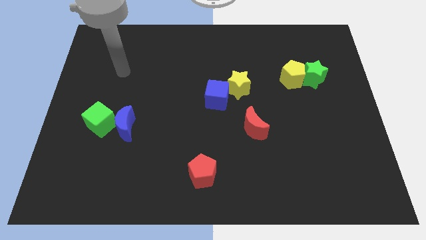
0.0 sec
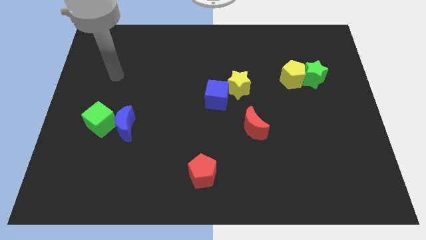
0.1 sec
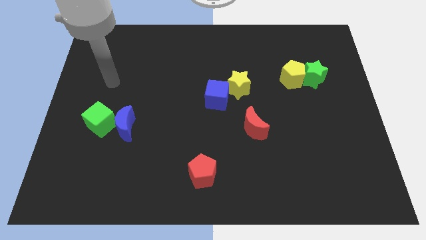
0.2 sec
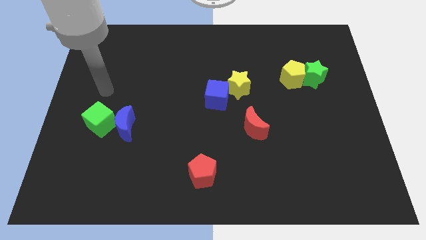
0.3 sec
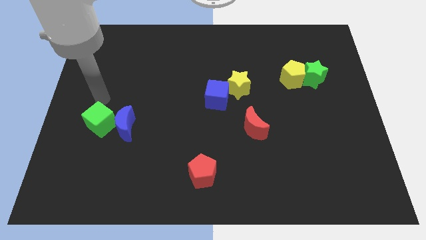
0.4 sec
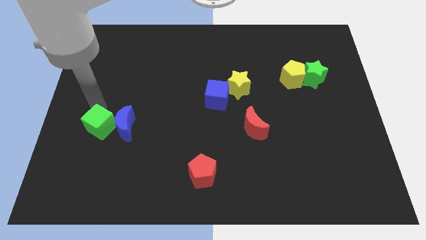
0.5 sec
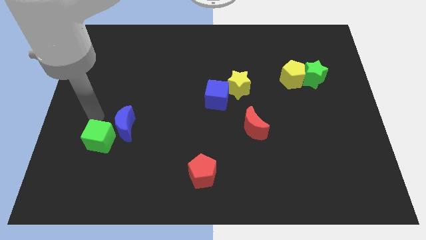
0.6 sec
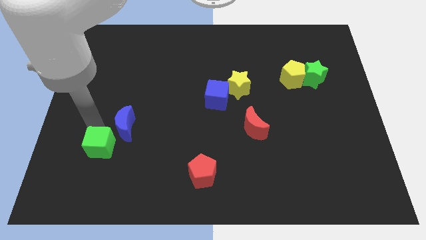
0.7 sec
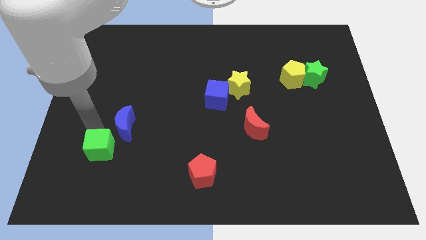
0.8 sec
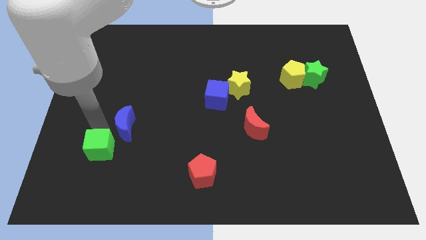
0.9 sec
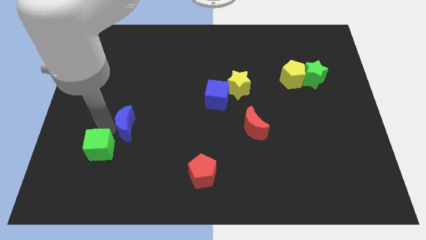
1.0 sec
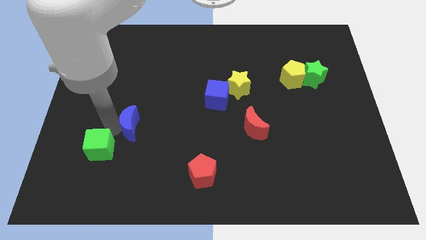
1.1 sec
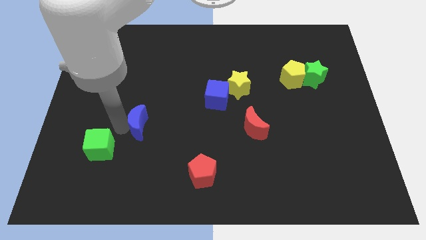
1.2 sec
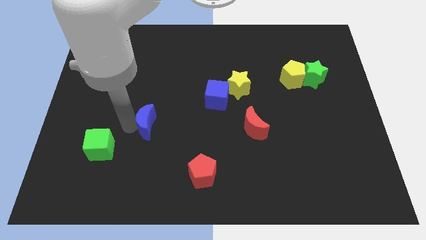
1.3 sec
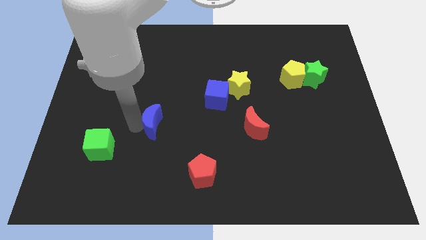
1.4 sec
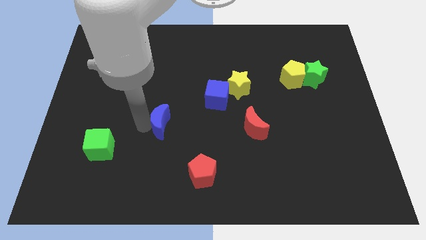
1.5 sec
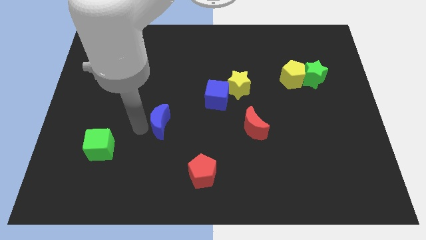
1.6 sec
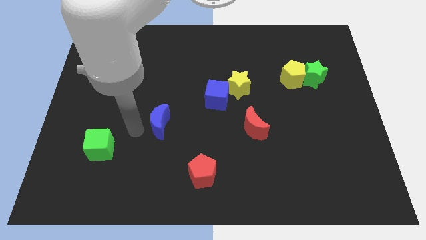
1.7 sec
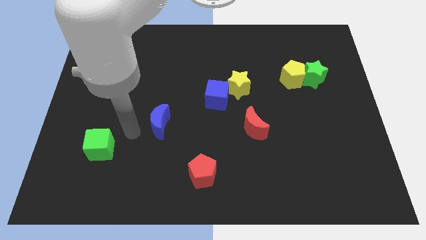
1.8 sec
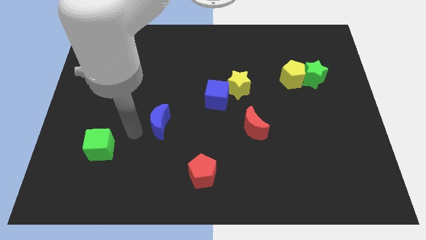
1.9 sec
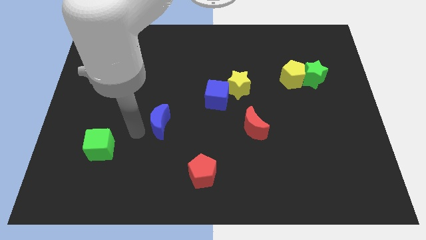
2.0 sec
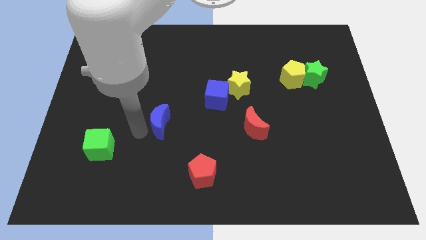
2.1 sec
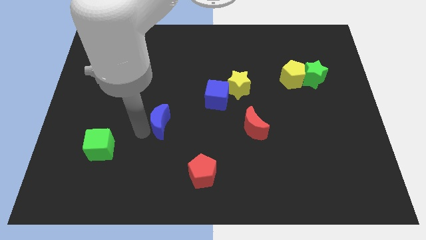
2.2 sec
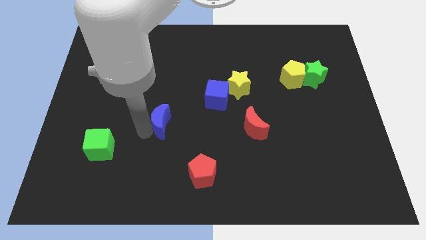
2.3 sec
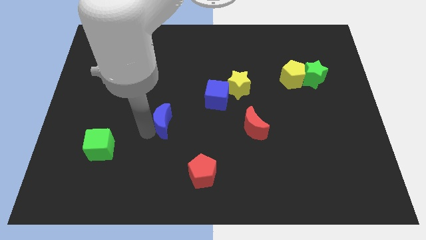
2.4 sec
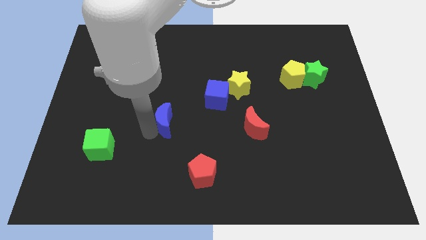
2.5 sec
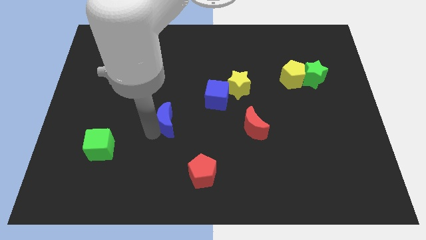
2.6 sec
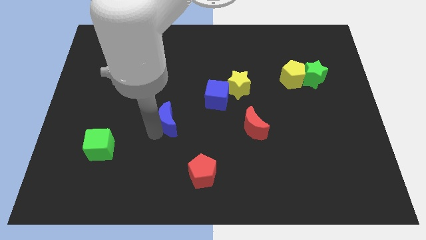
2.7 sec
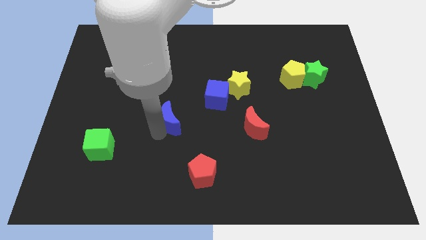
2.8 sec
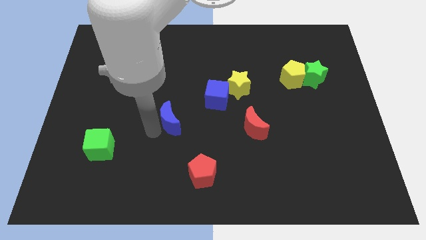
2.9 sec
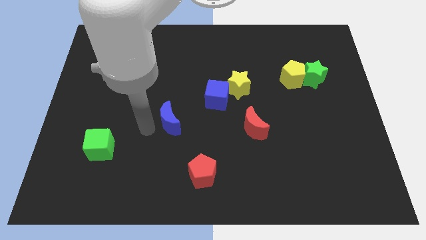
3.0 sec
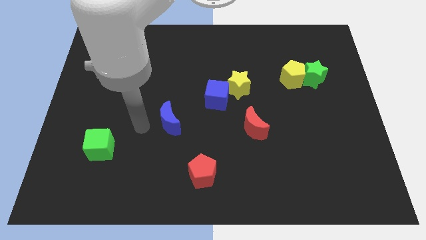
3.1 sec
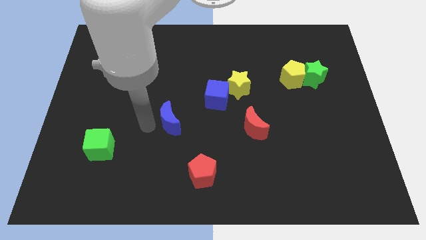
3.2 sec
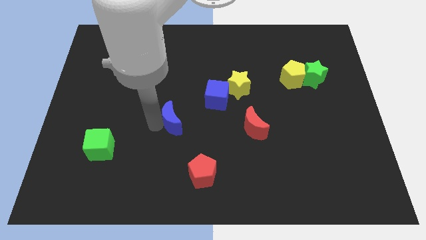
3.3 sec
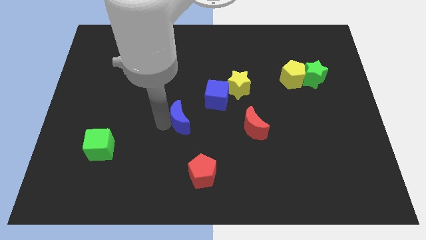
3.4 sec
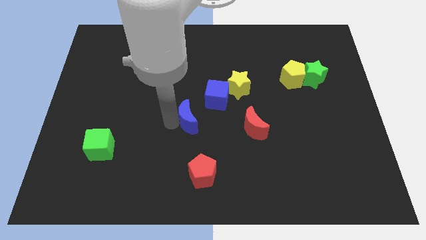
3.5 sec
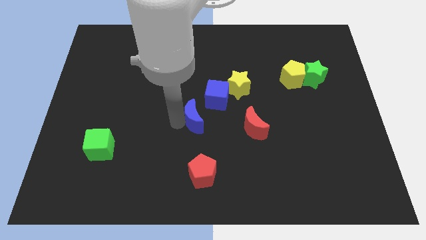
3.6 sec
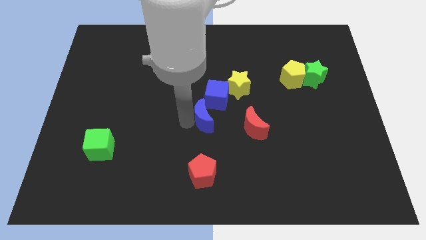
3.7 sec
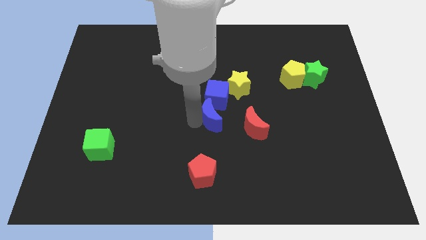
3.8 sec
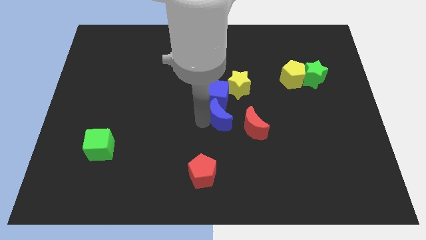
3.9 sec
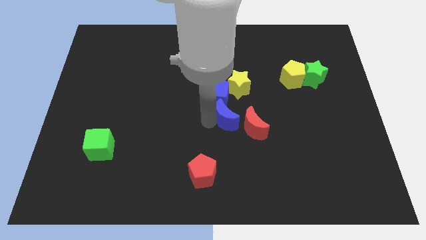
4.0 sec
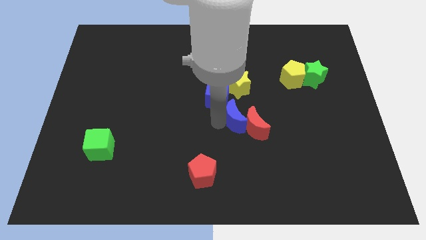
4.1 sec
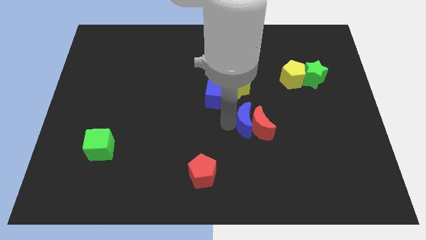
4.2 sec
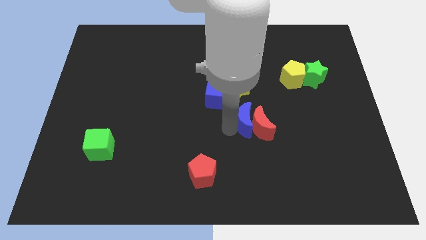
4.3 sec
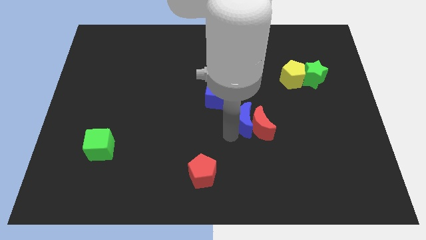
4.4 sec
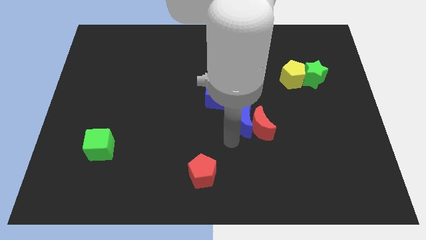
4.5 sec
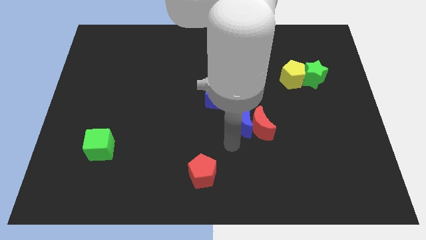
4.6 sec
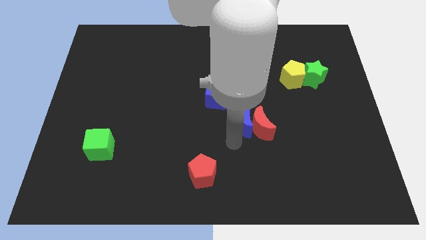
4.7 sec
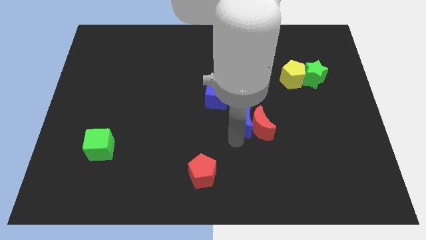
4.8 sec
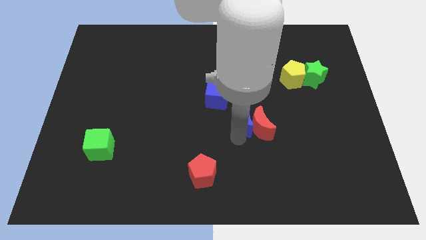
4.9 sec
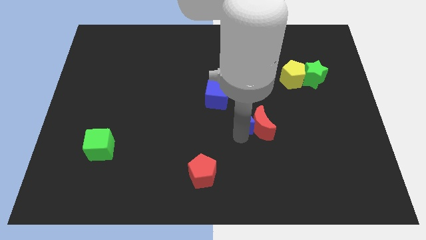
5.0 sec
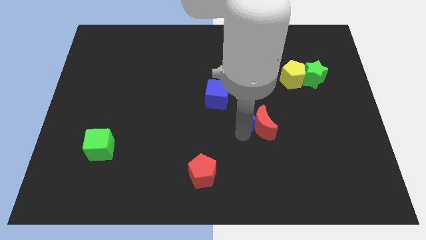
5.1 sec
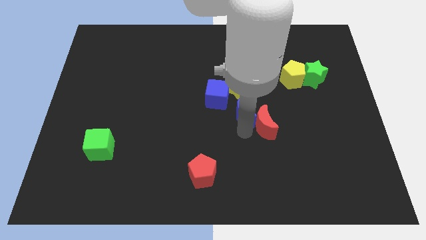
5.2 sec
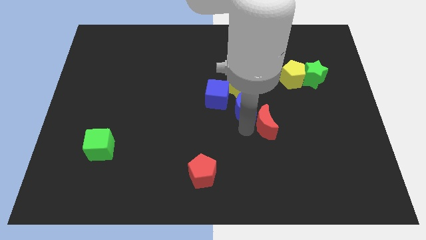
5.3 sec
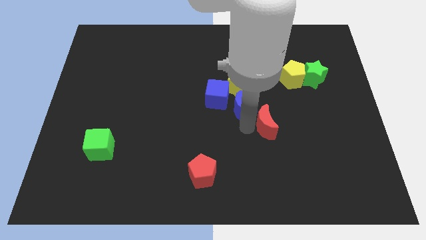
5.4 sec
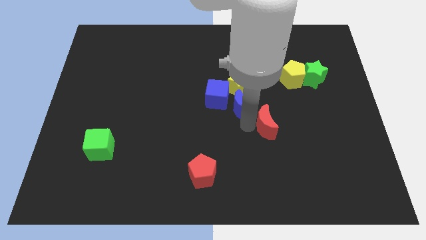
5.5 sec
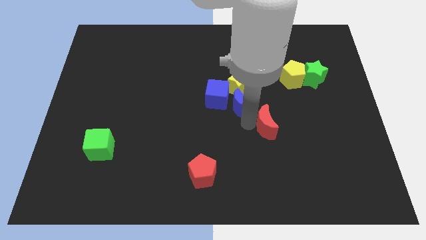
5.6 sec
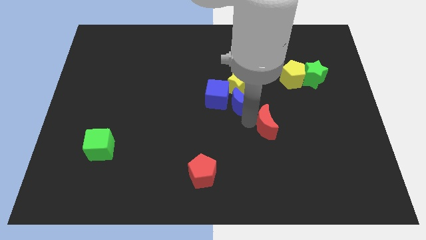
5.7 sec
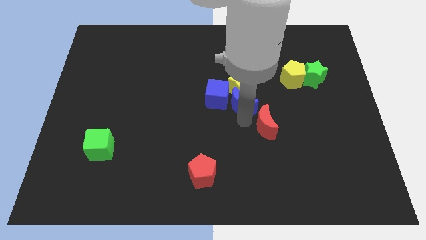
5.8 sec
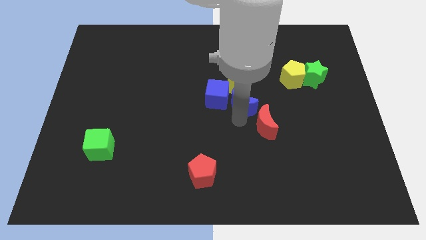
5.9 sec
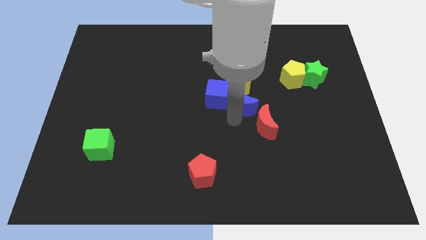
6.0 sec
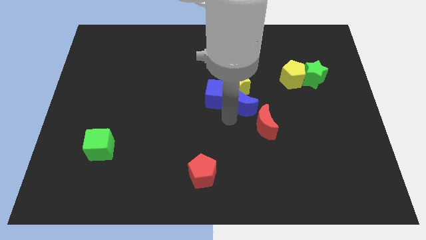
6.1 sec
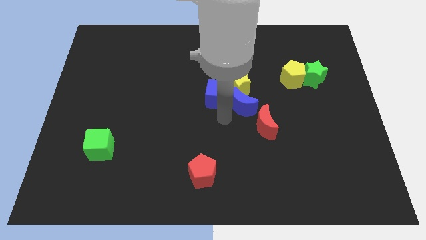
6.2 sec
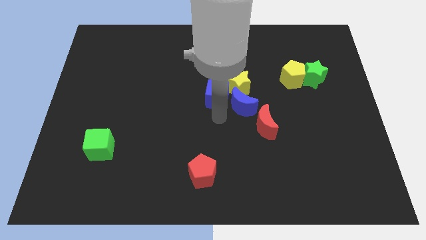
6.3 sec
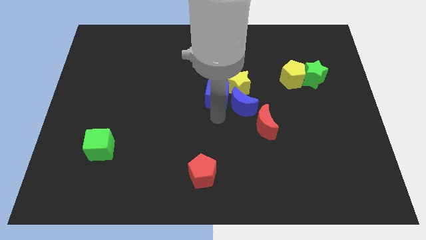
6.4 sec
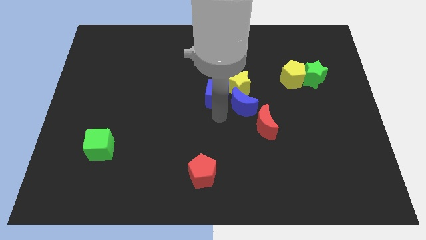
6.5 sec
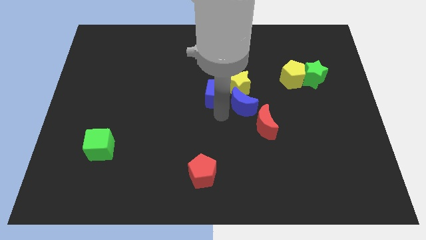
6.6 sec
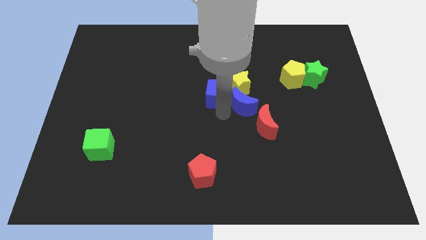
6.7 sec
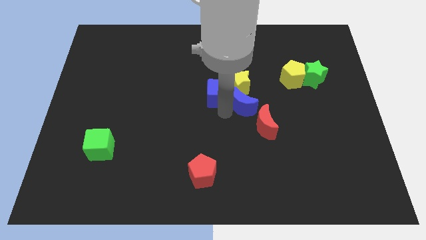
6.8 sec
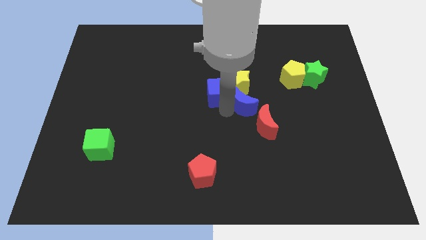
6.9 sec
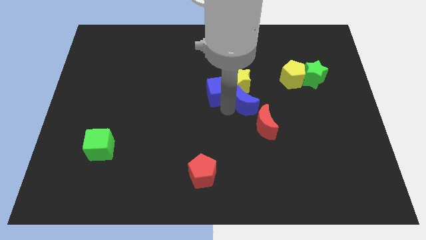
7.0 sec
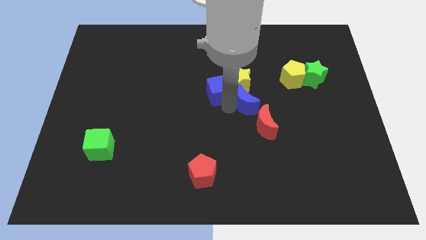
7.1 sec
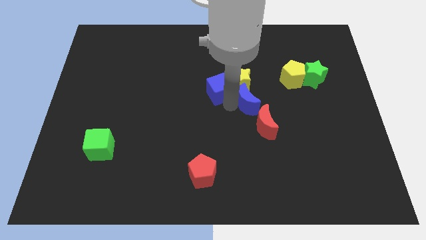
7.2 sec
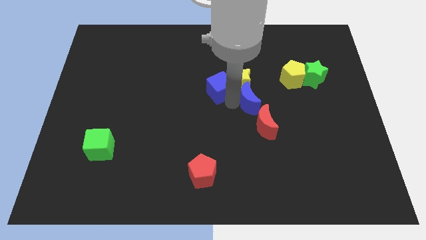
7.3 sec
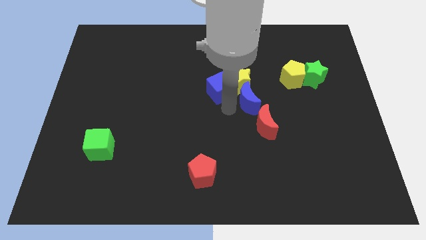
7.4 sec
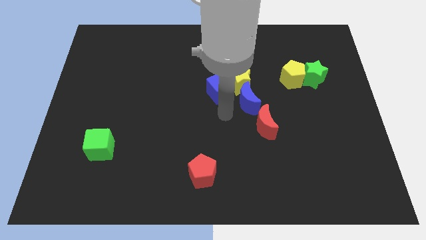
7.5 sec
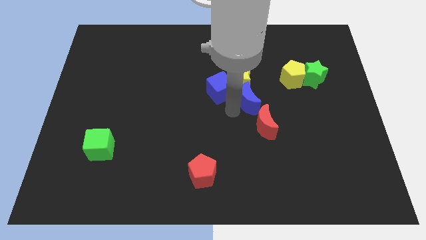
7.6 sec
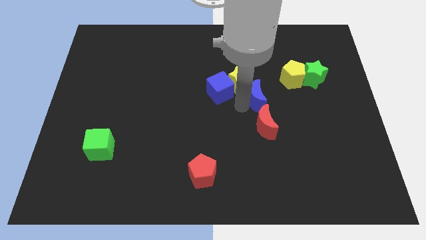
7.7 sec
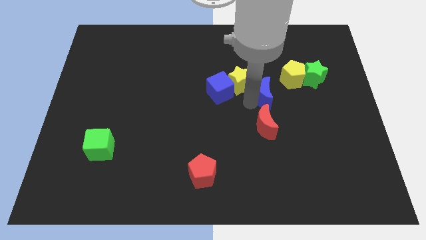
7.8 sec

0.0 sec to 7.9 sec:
slide the blue moon just right of the yellow star
